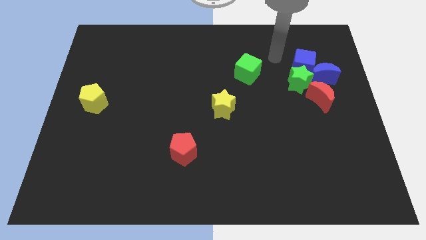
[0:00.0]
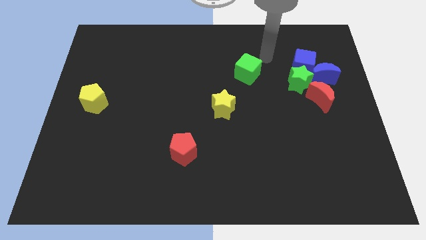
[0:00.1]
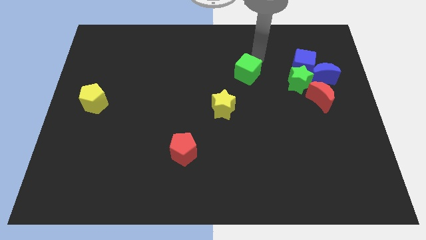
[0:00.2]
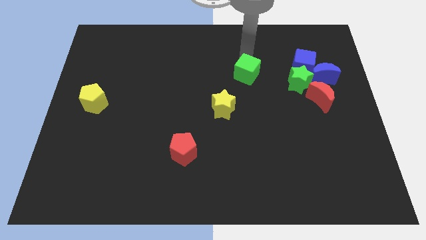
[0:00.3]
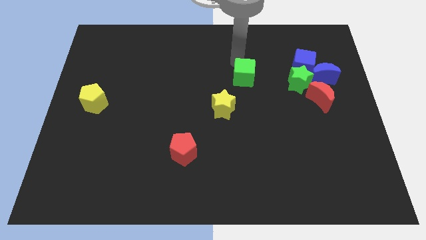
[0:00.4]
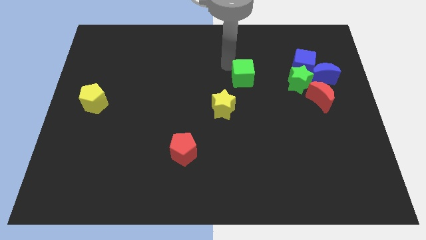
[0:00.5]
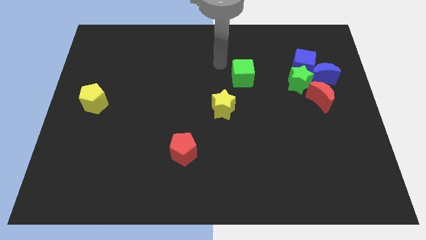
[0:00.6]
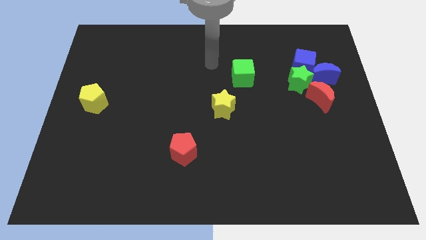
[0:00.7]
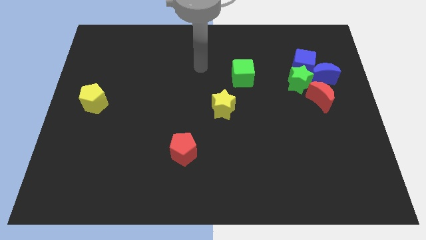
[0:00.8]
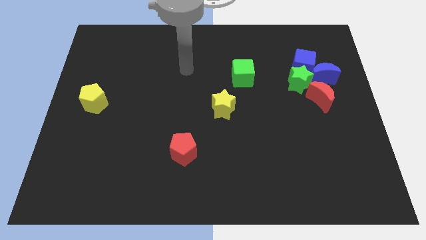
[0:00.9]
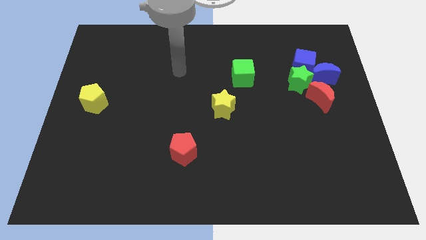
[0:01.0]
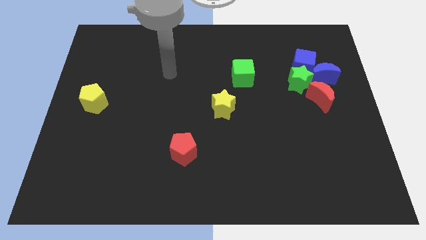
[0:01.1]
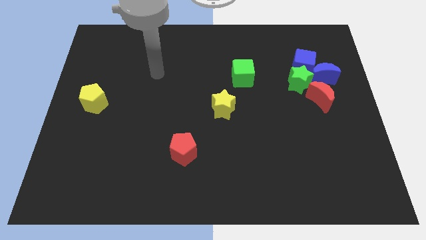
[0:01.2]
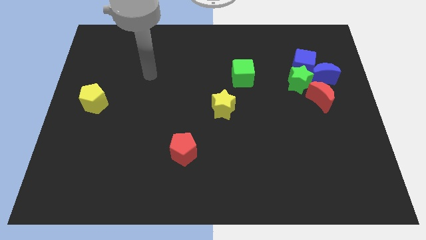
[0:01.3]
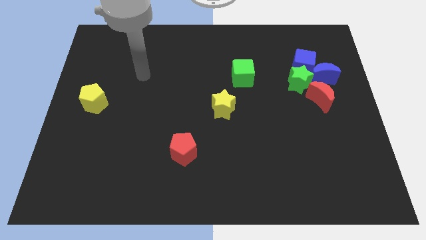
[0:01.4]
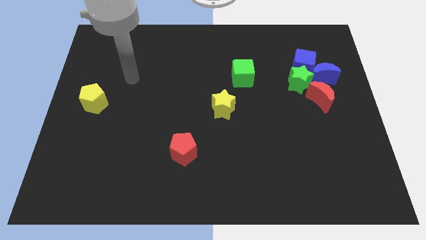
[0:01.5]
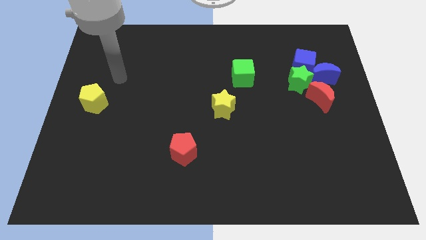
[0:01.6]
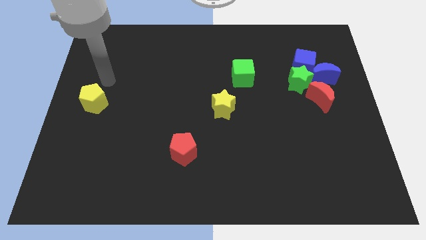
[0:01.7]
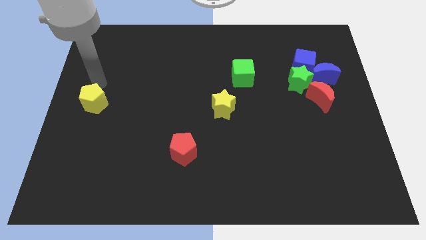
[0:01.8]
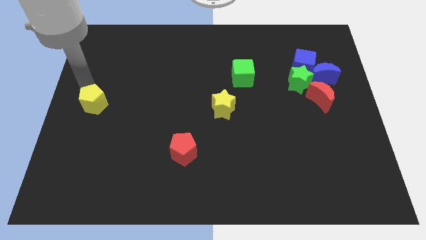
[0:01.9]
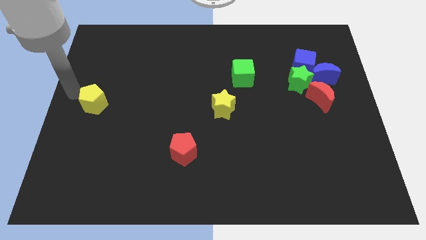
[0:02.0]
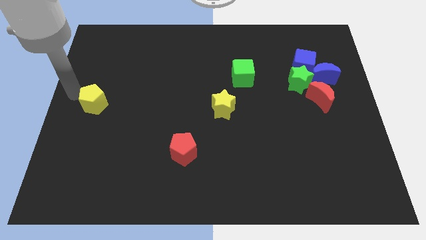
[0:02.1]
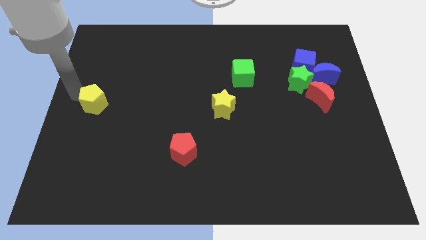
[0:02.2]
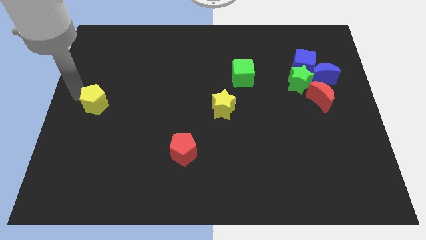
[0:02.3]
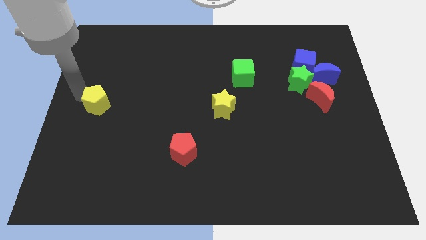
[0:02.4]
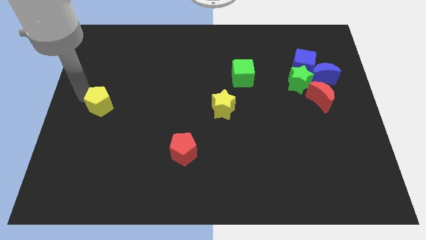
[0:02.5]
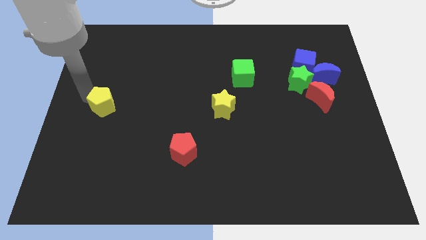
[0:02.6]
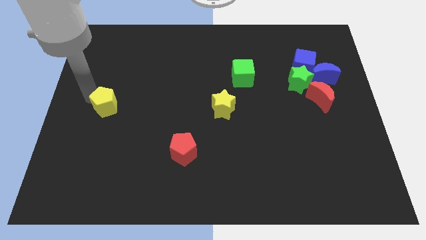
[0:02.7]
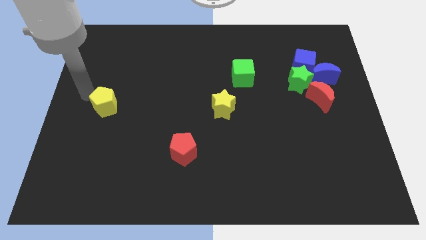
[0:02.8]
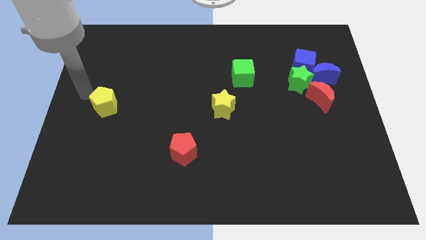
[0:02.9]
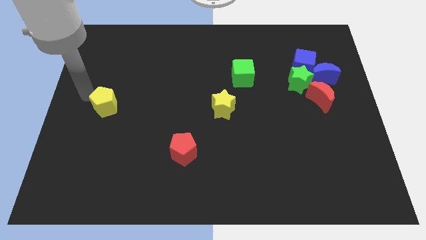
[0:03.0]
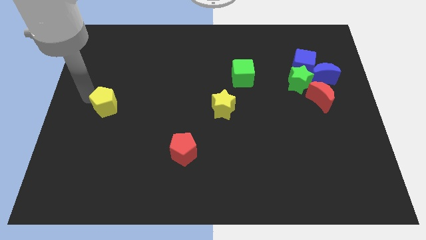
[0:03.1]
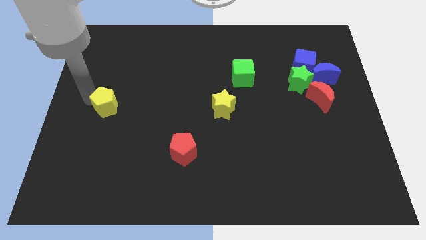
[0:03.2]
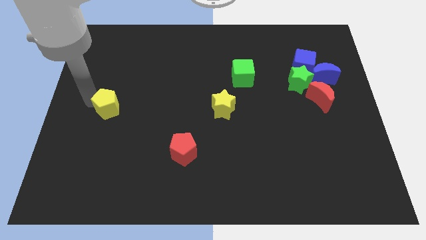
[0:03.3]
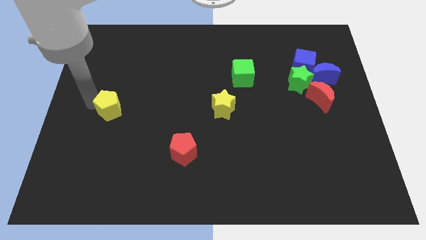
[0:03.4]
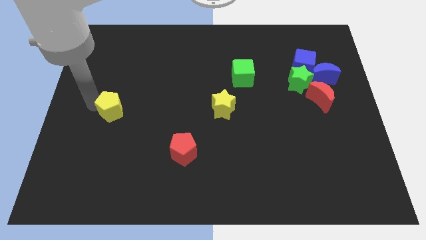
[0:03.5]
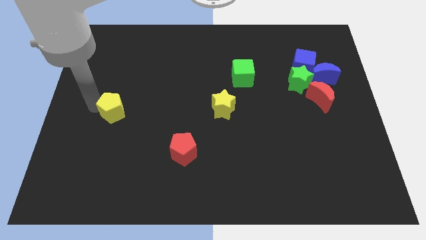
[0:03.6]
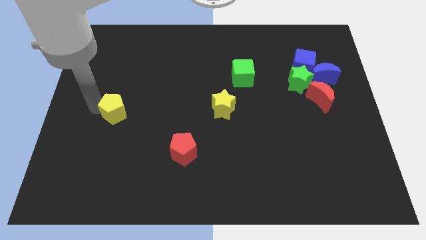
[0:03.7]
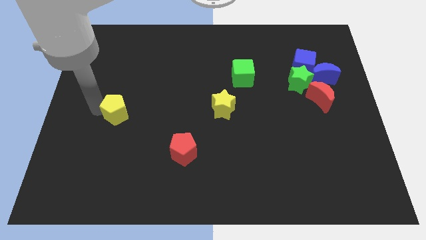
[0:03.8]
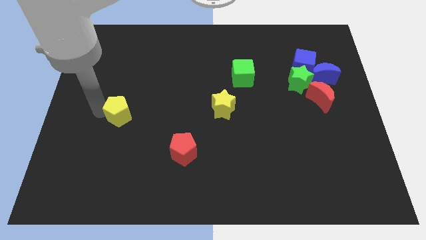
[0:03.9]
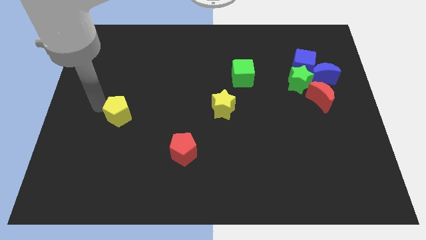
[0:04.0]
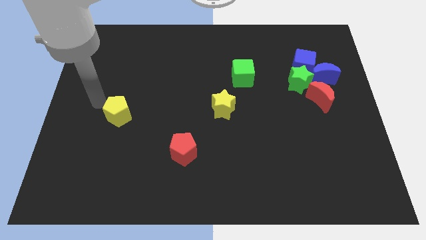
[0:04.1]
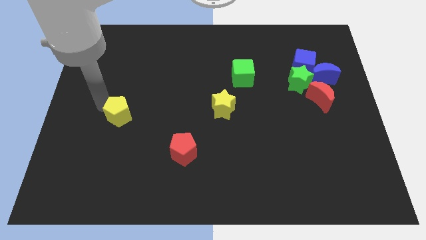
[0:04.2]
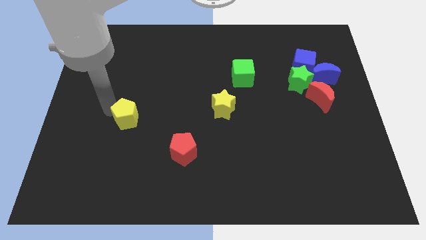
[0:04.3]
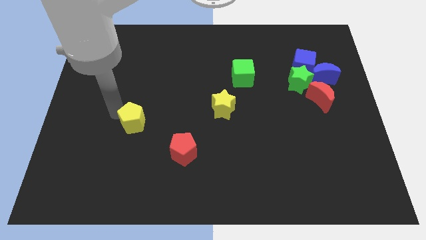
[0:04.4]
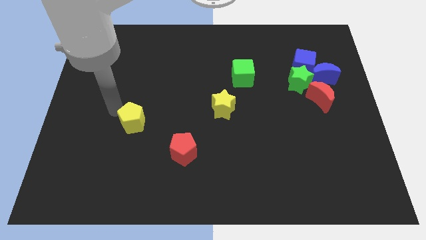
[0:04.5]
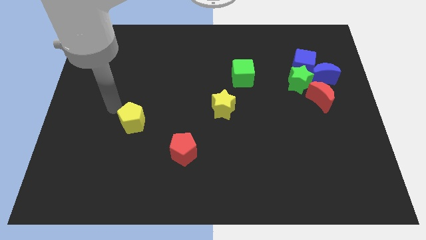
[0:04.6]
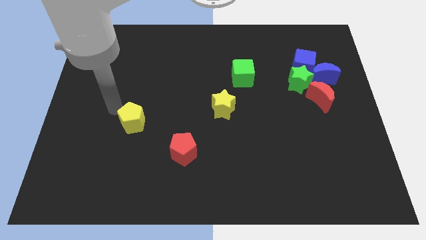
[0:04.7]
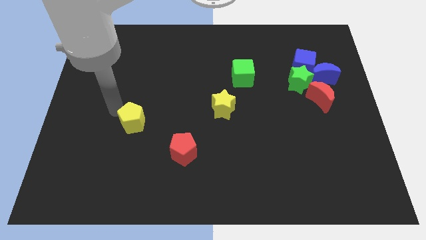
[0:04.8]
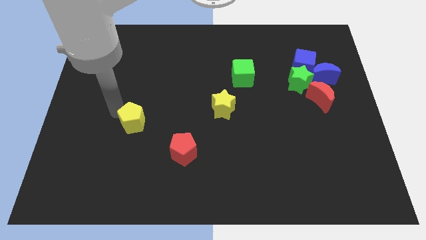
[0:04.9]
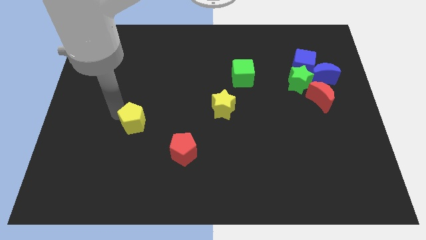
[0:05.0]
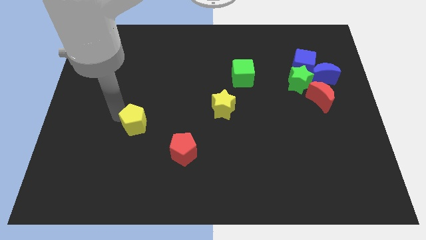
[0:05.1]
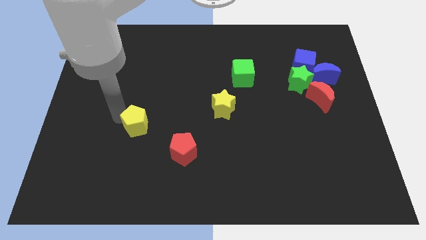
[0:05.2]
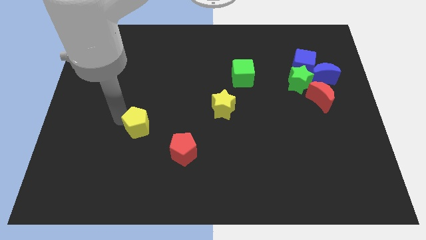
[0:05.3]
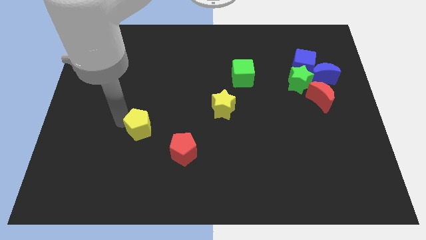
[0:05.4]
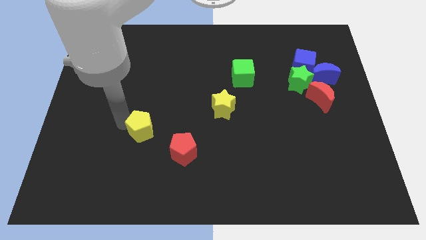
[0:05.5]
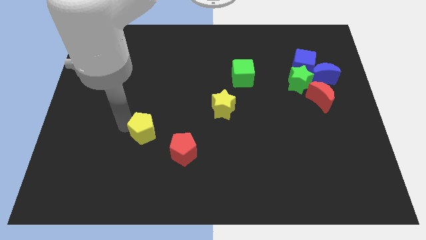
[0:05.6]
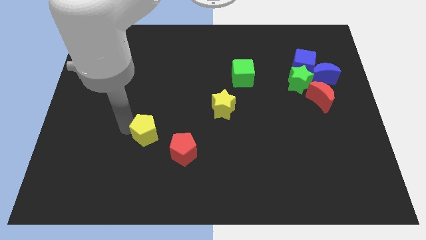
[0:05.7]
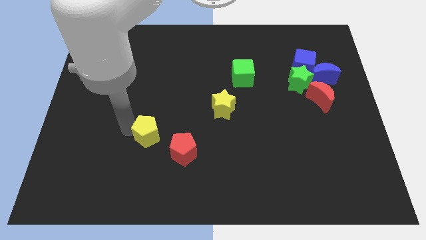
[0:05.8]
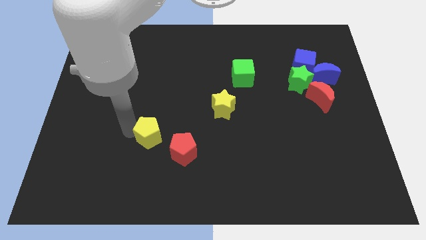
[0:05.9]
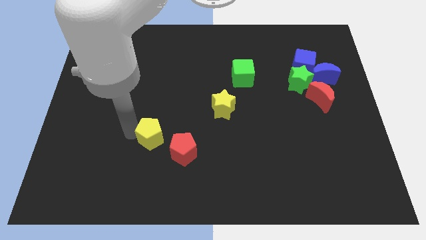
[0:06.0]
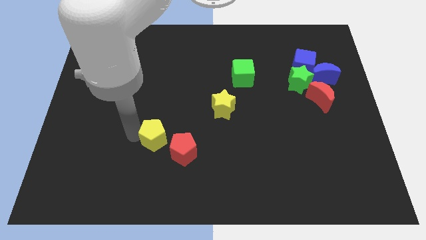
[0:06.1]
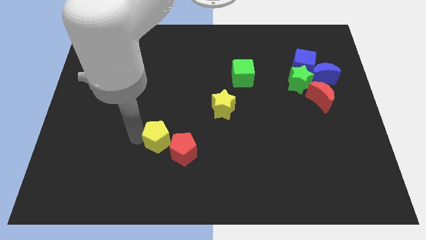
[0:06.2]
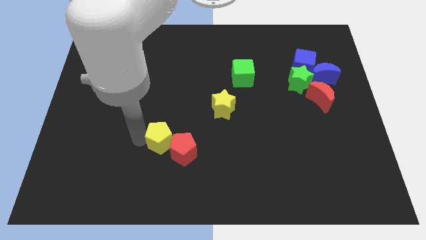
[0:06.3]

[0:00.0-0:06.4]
push the yellow pentagon to the red pentagon
